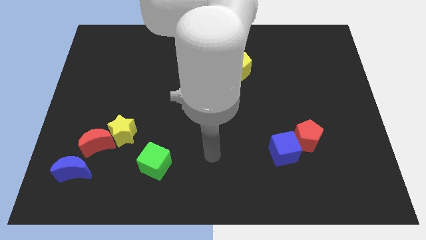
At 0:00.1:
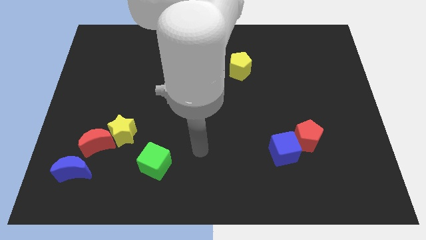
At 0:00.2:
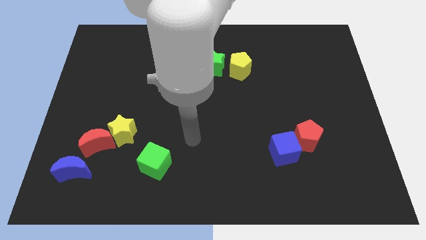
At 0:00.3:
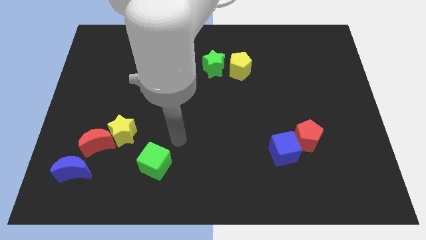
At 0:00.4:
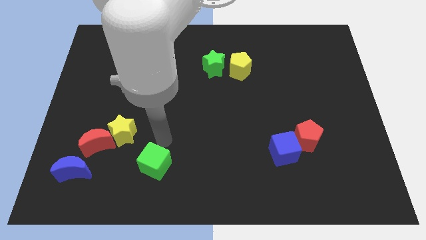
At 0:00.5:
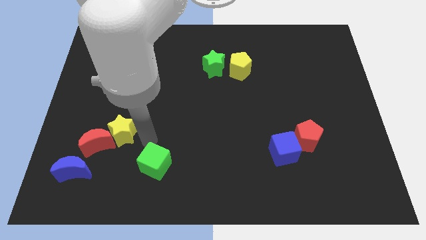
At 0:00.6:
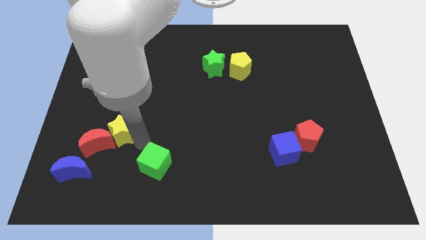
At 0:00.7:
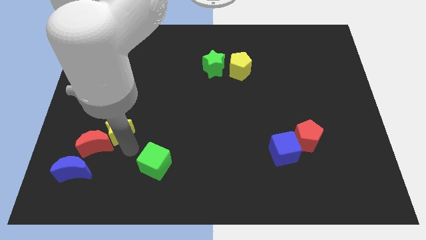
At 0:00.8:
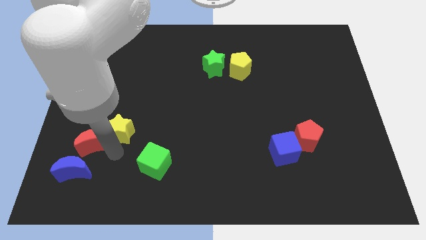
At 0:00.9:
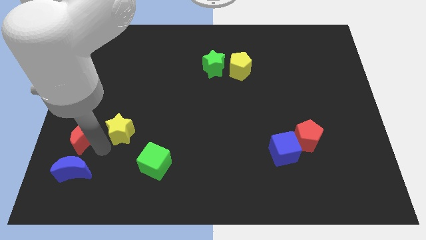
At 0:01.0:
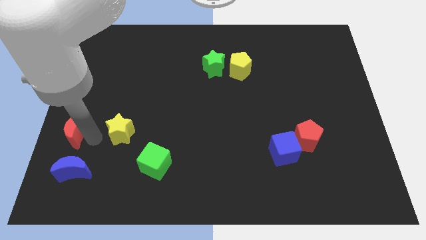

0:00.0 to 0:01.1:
pull the yellow star apart from the red moon

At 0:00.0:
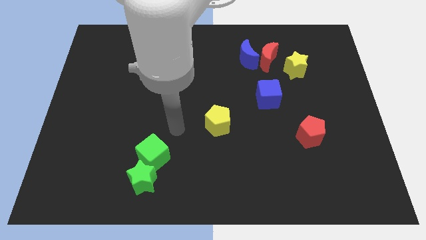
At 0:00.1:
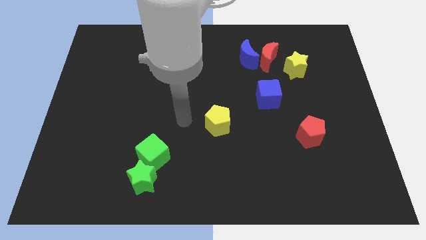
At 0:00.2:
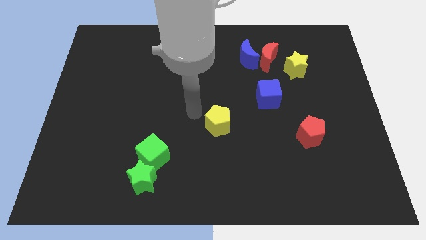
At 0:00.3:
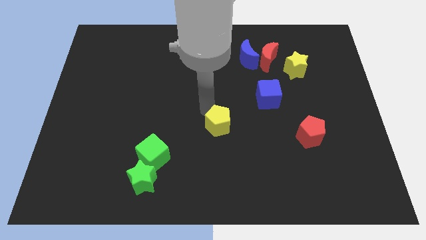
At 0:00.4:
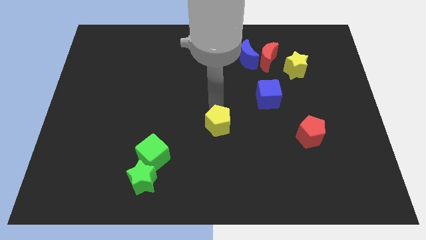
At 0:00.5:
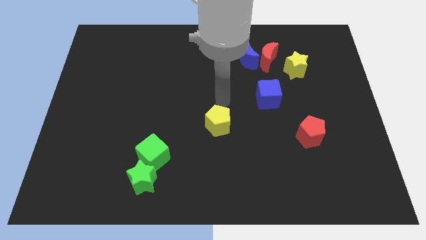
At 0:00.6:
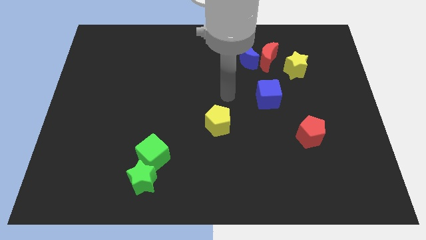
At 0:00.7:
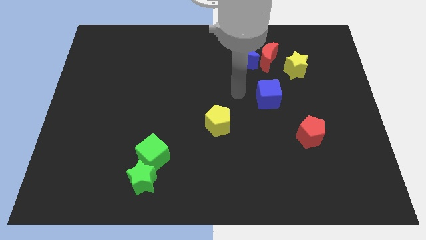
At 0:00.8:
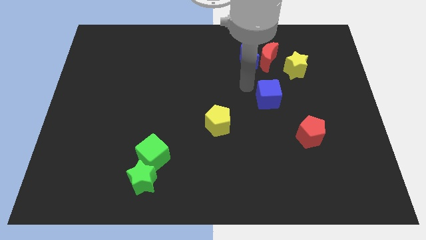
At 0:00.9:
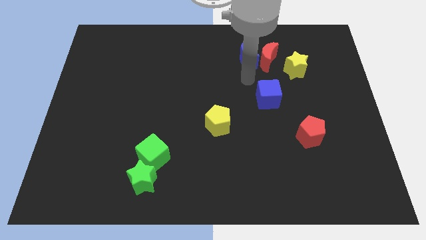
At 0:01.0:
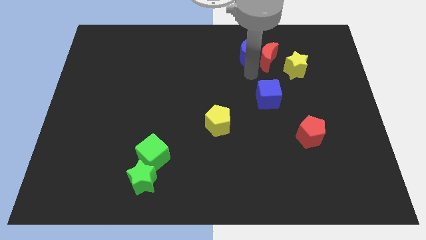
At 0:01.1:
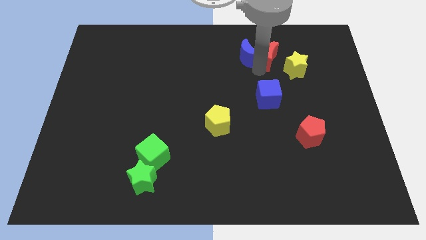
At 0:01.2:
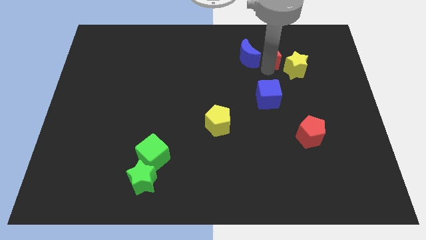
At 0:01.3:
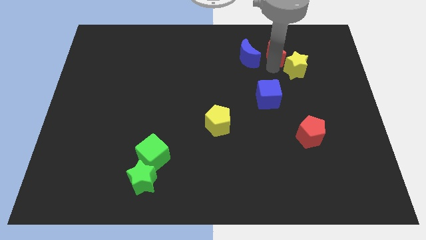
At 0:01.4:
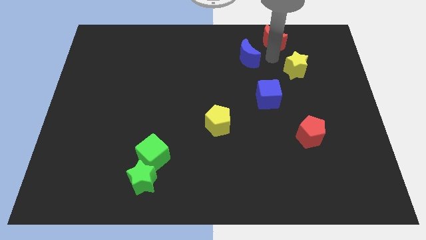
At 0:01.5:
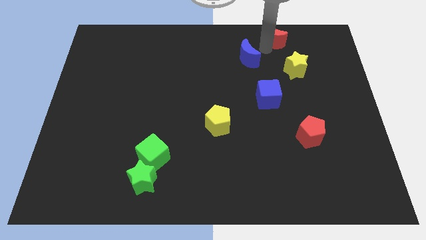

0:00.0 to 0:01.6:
separate the blue moon from the red moon

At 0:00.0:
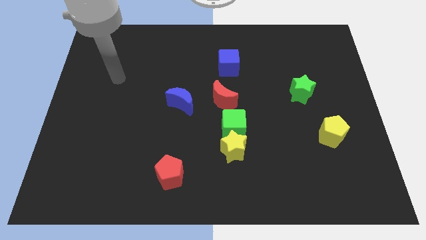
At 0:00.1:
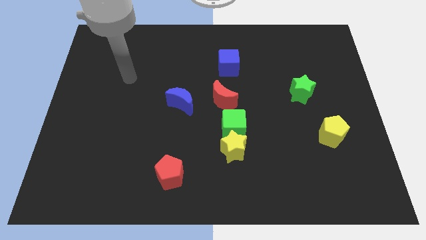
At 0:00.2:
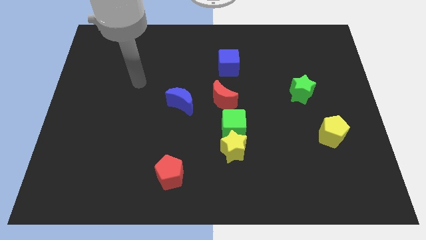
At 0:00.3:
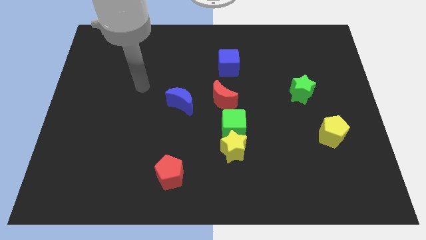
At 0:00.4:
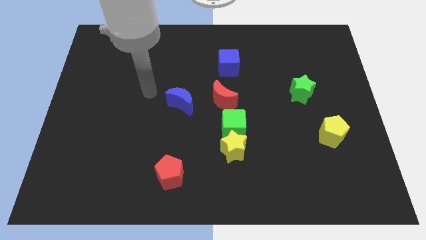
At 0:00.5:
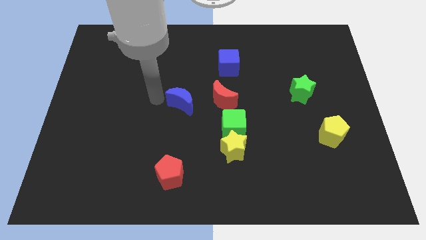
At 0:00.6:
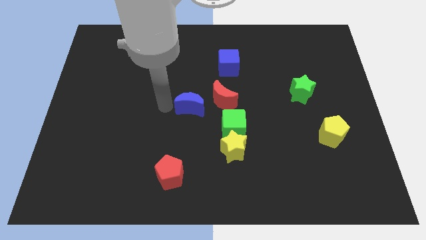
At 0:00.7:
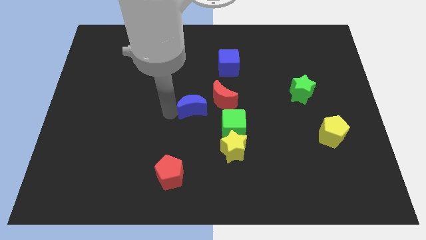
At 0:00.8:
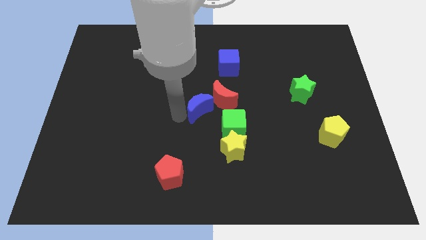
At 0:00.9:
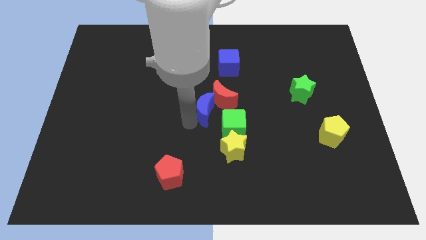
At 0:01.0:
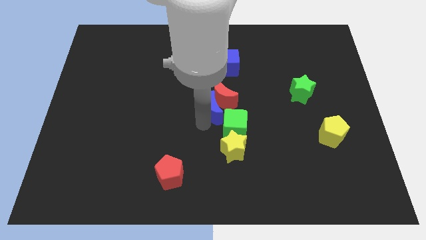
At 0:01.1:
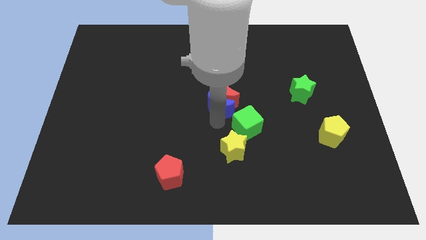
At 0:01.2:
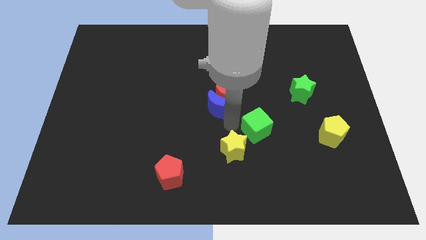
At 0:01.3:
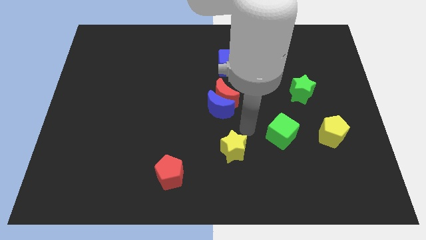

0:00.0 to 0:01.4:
separate the yellow star from the green cube

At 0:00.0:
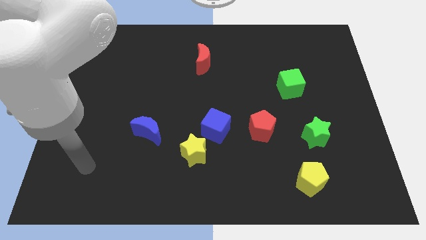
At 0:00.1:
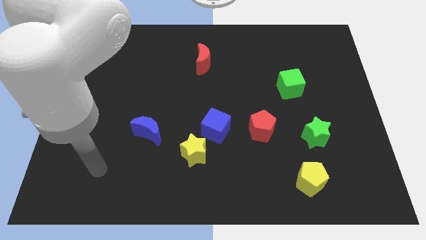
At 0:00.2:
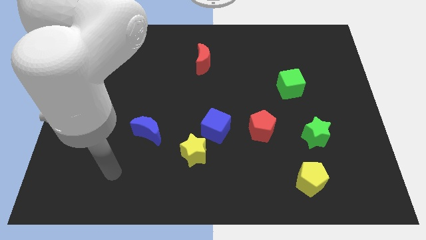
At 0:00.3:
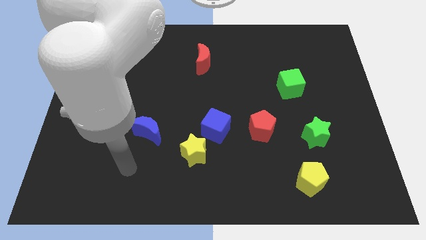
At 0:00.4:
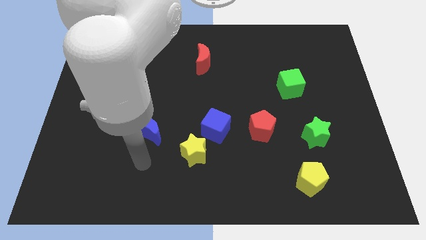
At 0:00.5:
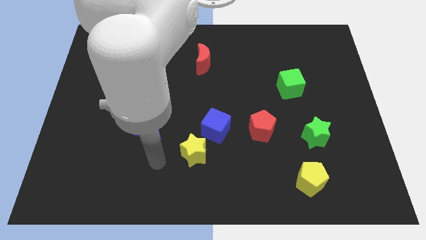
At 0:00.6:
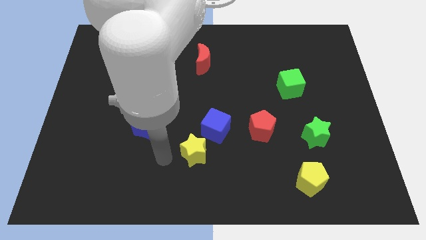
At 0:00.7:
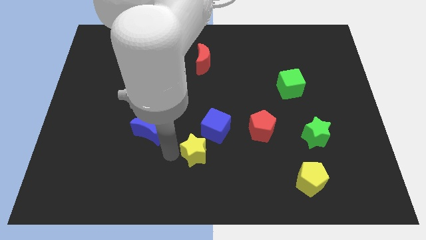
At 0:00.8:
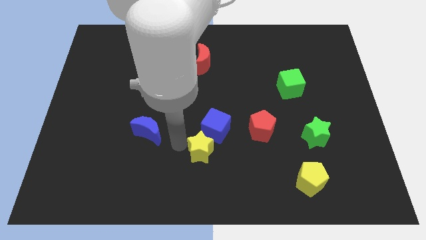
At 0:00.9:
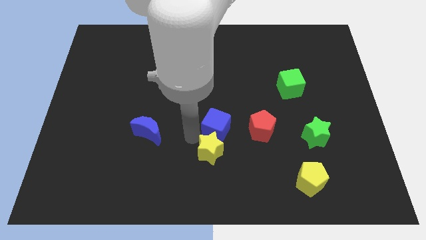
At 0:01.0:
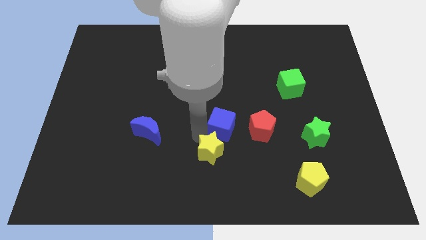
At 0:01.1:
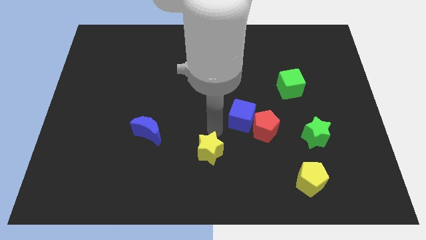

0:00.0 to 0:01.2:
move the yellow star away from the blue cube

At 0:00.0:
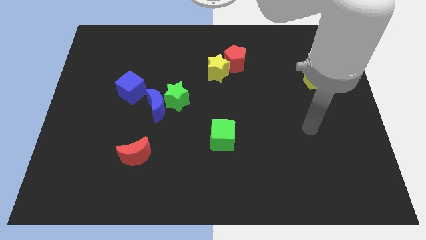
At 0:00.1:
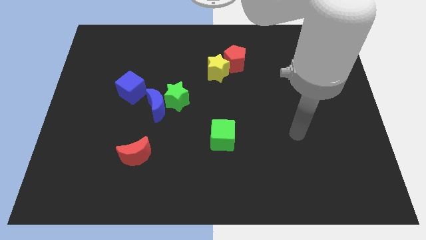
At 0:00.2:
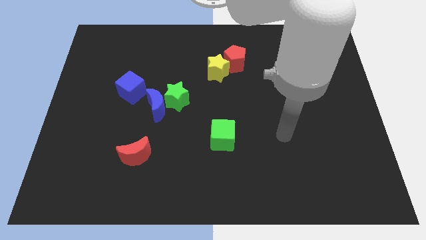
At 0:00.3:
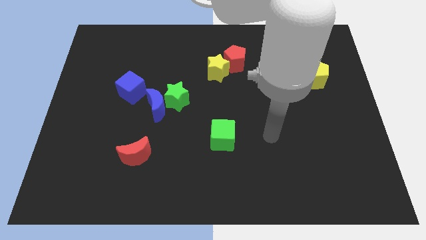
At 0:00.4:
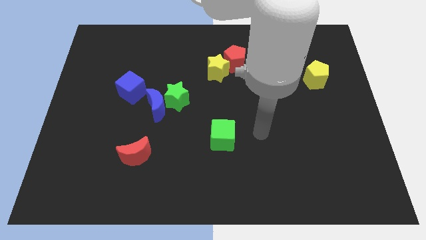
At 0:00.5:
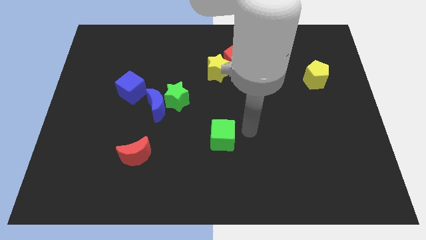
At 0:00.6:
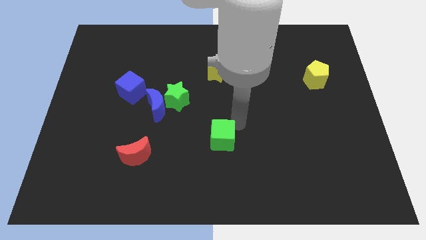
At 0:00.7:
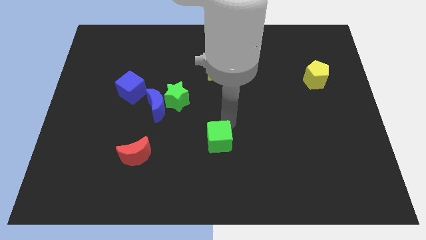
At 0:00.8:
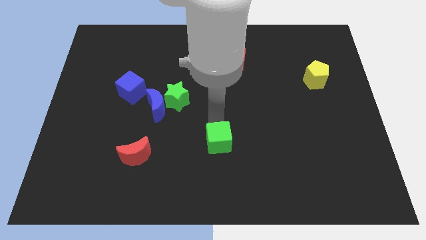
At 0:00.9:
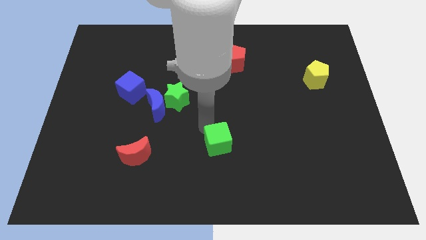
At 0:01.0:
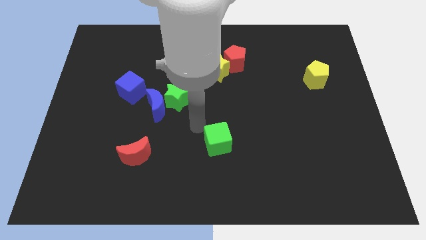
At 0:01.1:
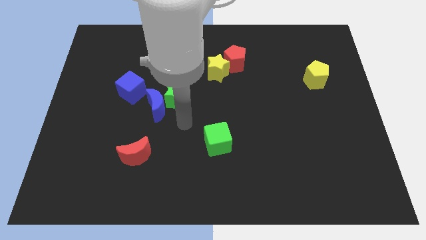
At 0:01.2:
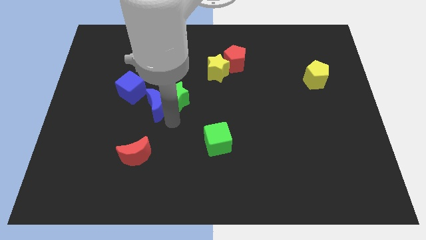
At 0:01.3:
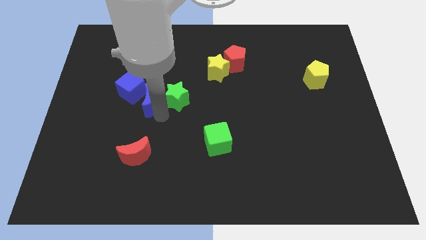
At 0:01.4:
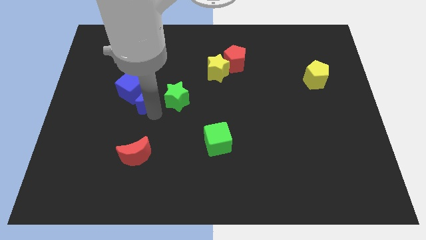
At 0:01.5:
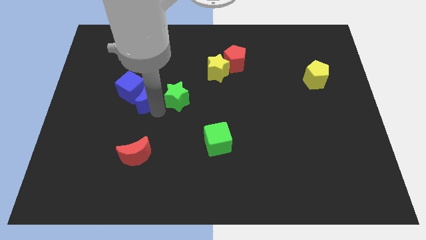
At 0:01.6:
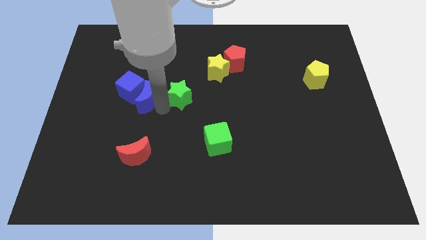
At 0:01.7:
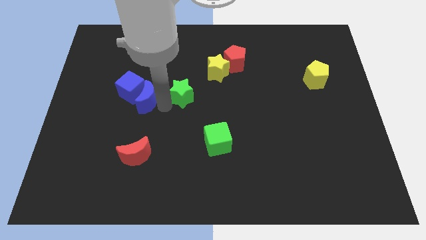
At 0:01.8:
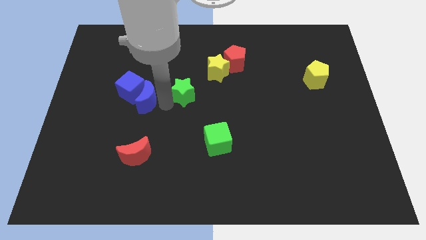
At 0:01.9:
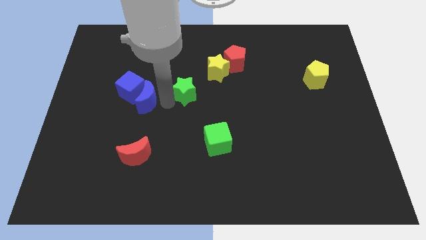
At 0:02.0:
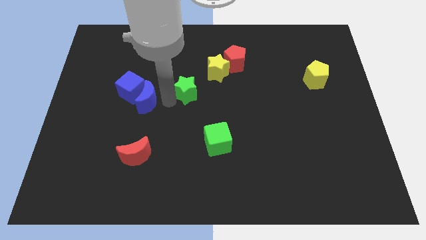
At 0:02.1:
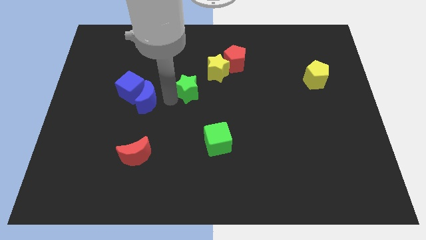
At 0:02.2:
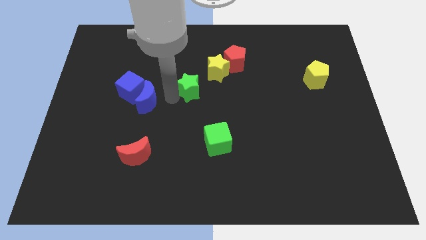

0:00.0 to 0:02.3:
move the green star away from the blue moon

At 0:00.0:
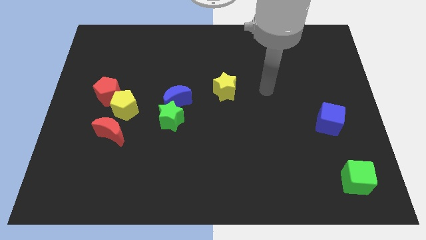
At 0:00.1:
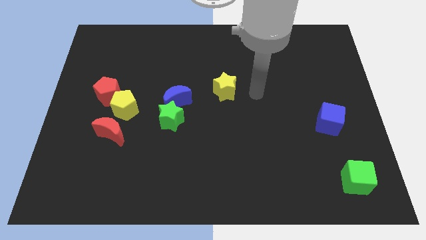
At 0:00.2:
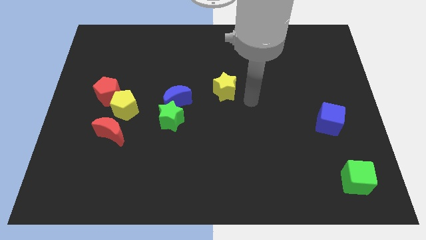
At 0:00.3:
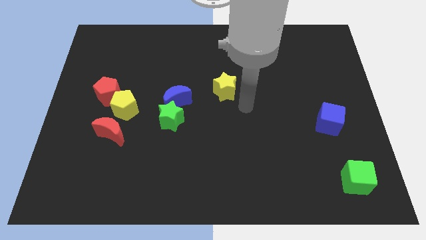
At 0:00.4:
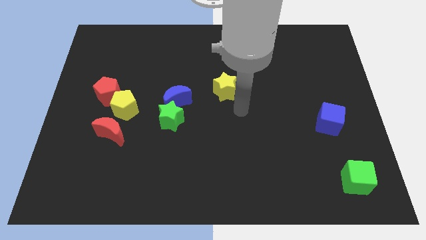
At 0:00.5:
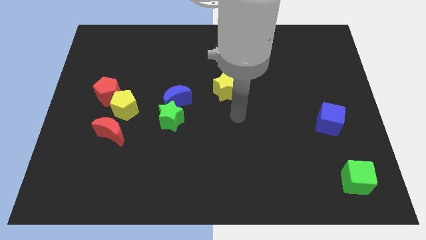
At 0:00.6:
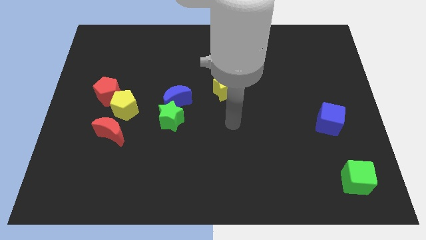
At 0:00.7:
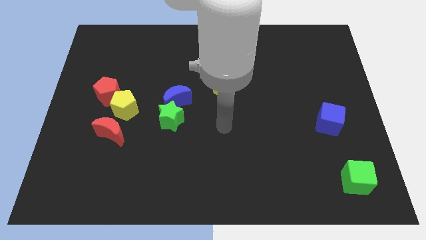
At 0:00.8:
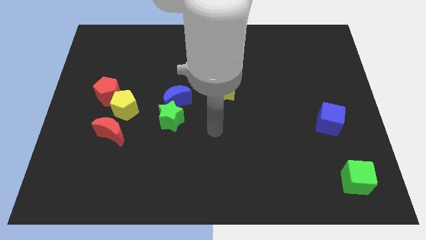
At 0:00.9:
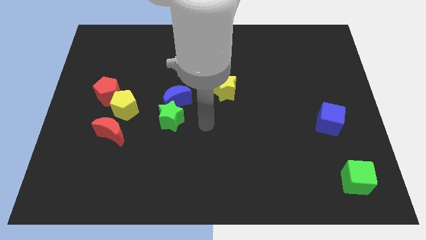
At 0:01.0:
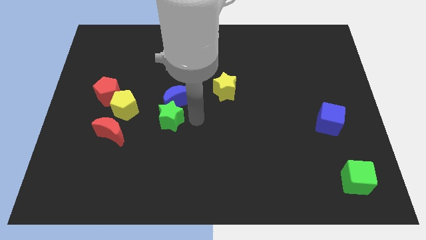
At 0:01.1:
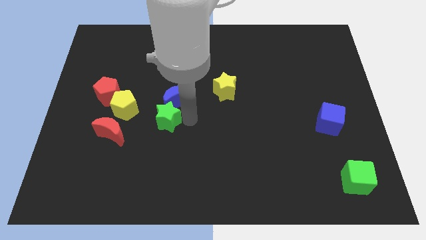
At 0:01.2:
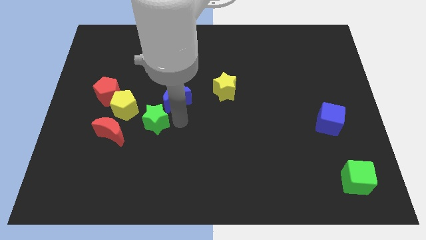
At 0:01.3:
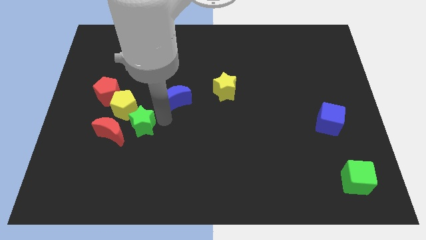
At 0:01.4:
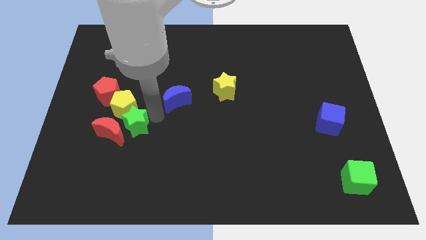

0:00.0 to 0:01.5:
move the blue moon away from the green star
